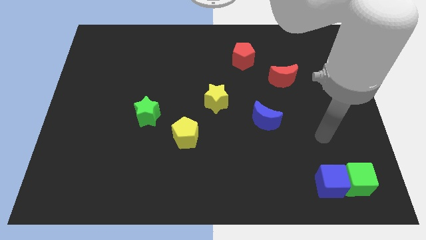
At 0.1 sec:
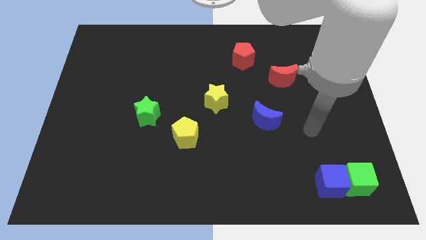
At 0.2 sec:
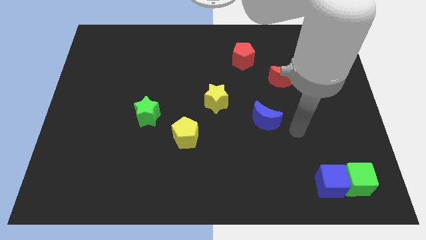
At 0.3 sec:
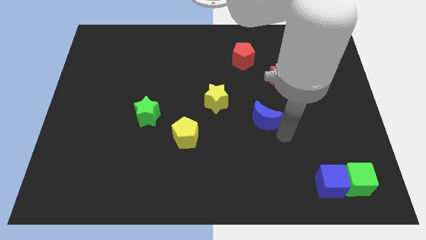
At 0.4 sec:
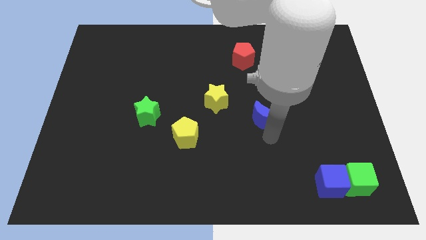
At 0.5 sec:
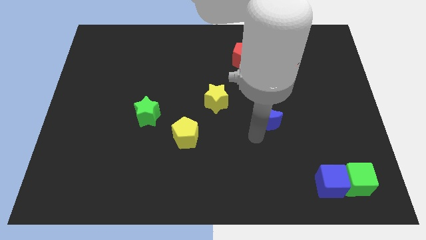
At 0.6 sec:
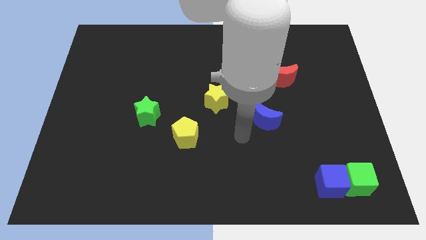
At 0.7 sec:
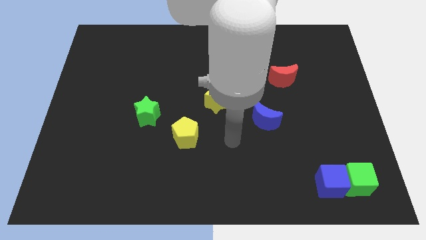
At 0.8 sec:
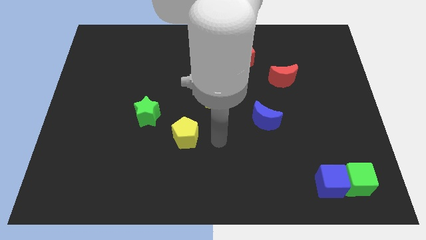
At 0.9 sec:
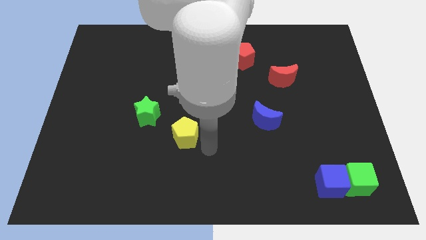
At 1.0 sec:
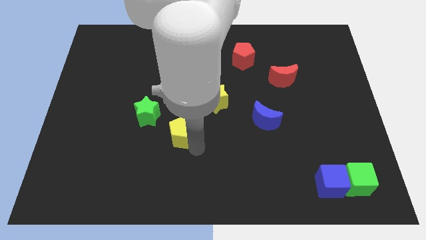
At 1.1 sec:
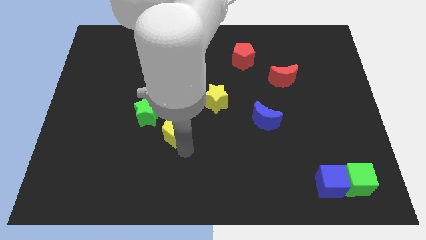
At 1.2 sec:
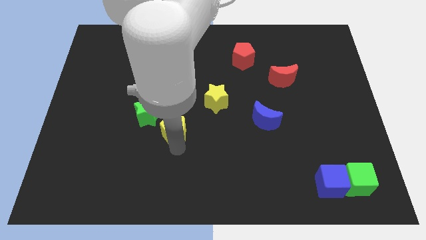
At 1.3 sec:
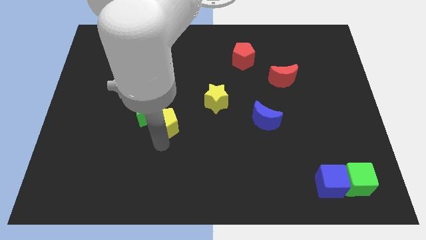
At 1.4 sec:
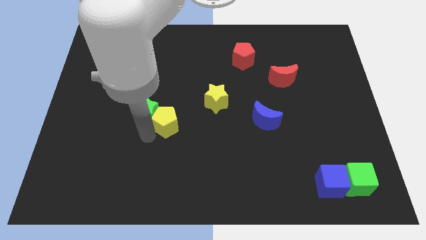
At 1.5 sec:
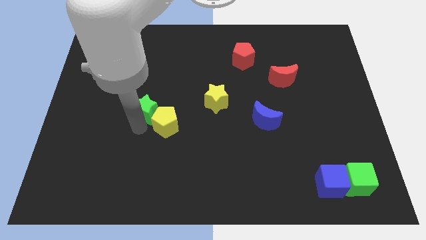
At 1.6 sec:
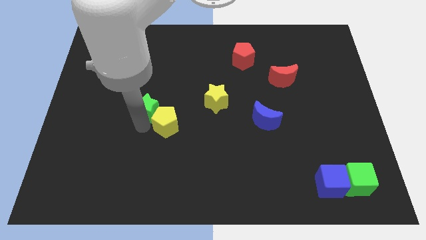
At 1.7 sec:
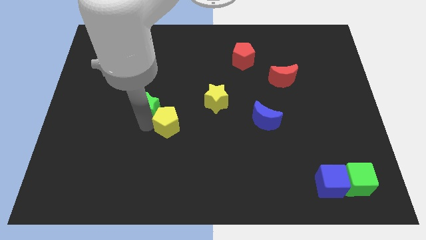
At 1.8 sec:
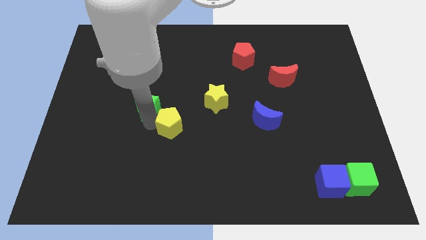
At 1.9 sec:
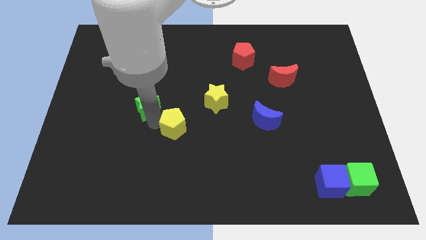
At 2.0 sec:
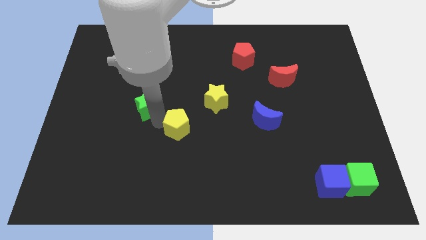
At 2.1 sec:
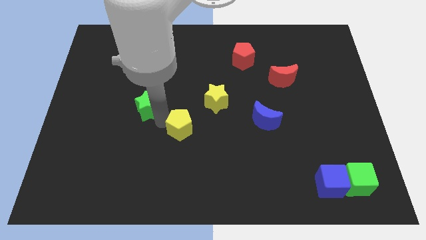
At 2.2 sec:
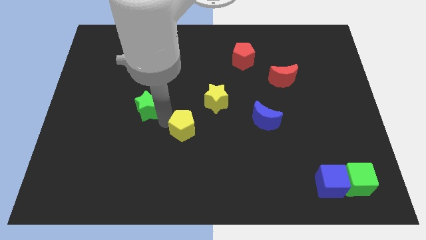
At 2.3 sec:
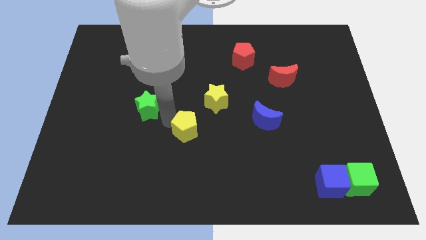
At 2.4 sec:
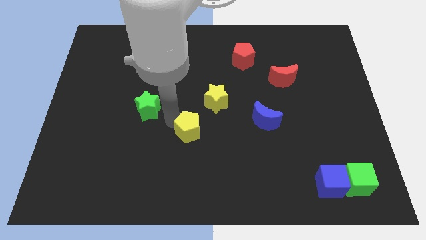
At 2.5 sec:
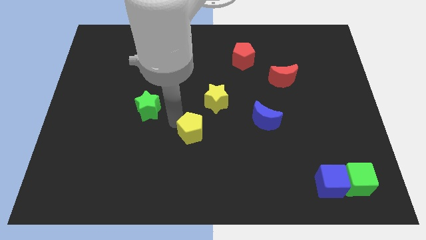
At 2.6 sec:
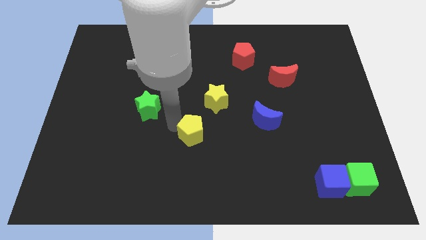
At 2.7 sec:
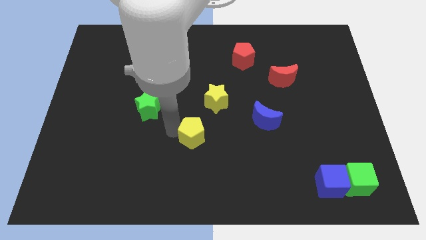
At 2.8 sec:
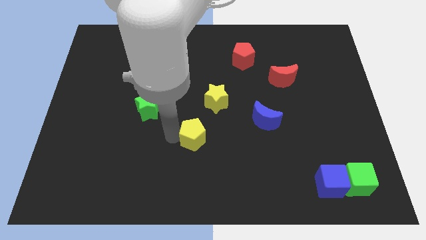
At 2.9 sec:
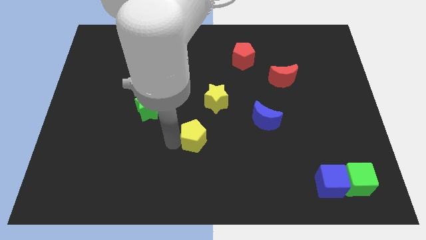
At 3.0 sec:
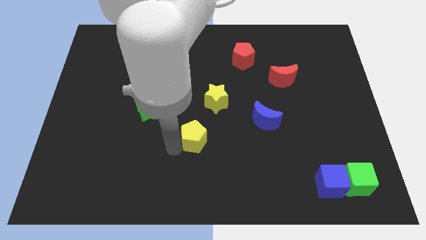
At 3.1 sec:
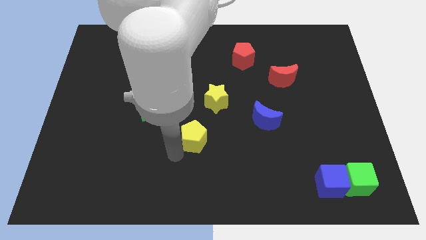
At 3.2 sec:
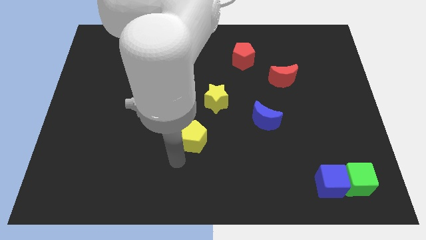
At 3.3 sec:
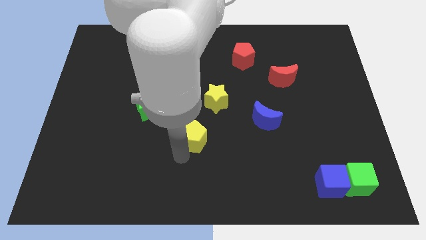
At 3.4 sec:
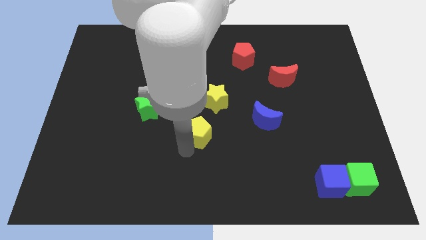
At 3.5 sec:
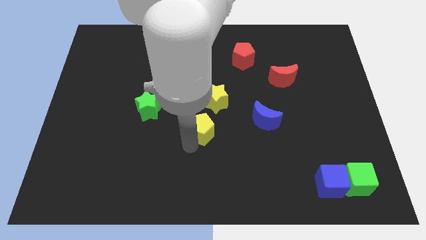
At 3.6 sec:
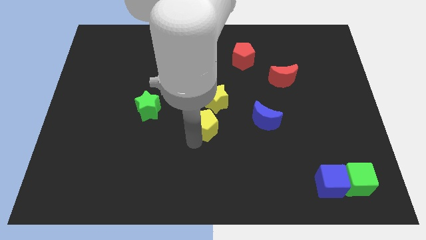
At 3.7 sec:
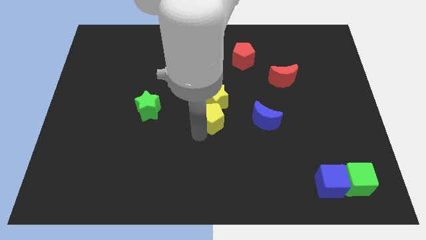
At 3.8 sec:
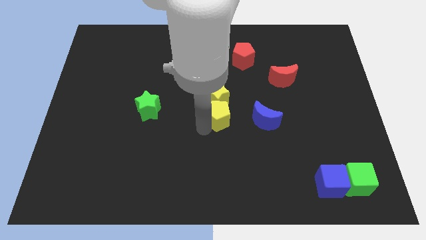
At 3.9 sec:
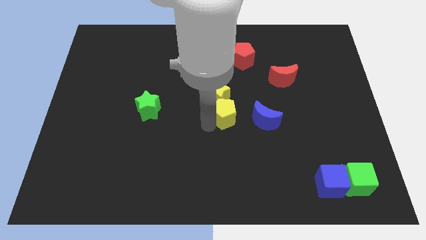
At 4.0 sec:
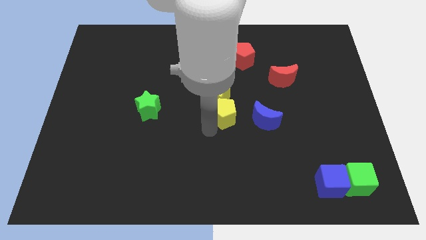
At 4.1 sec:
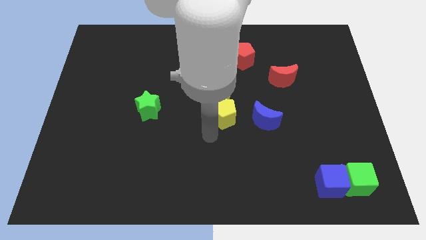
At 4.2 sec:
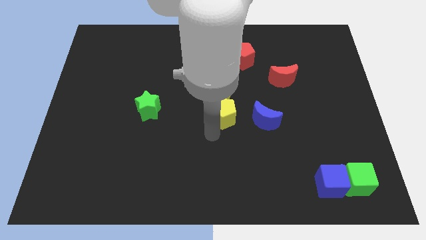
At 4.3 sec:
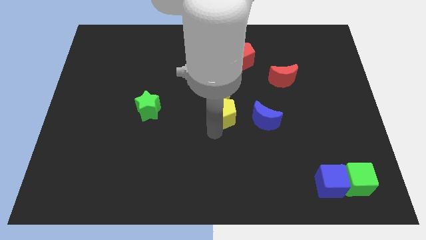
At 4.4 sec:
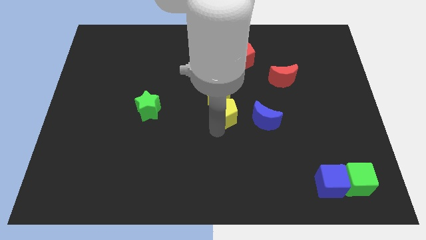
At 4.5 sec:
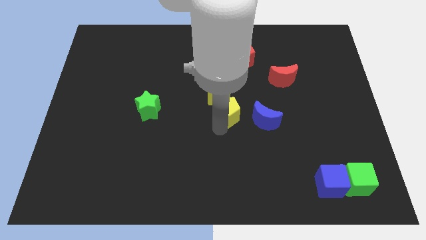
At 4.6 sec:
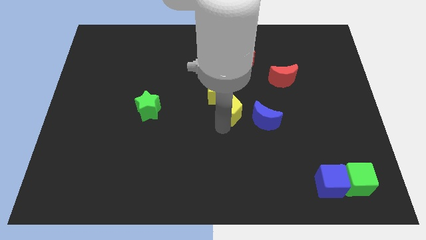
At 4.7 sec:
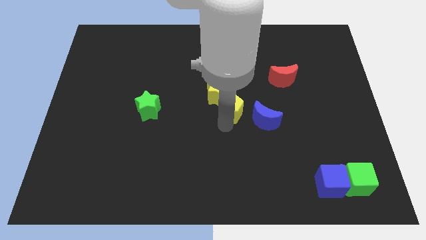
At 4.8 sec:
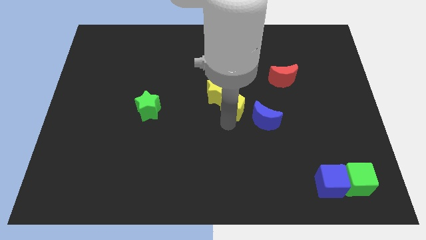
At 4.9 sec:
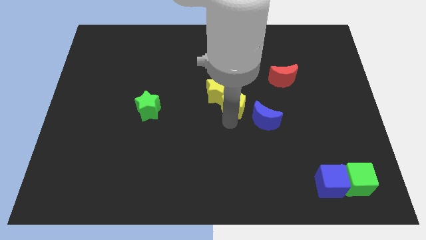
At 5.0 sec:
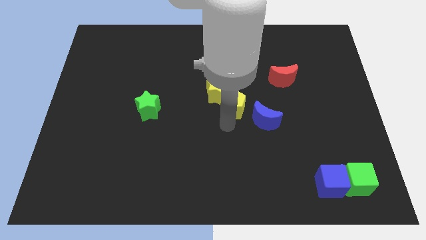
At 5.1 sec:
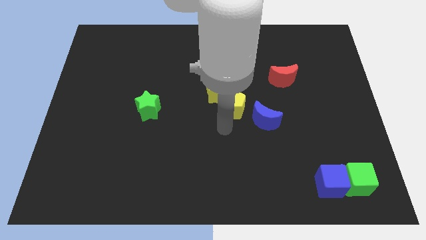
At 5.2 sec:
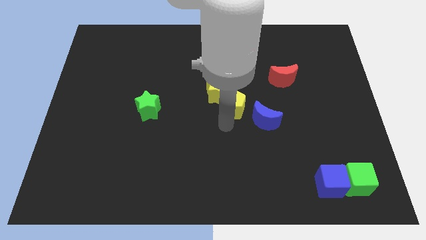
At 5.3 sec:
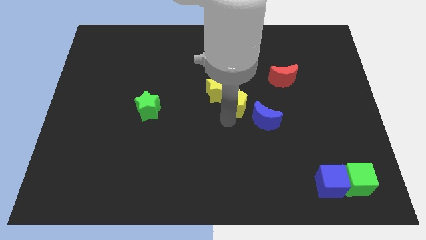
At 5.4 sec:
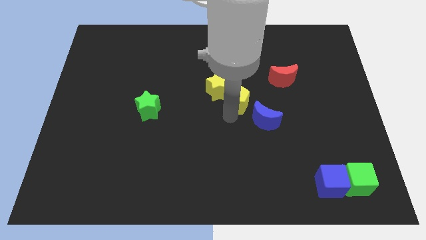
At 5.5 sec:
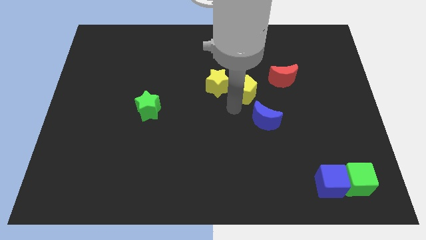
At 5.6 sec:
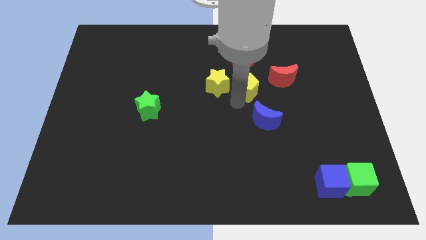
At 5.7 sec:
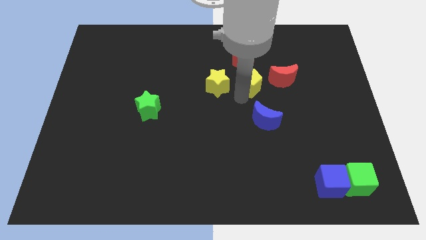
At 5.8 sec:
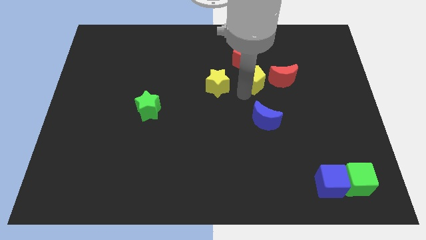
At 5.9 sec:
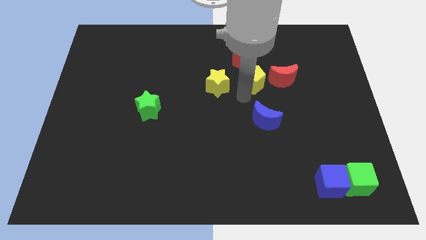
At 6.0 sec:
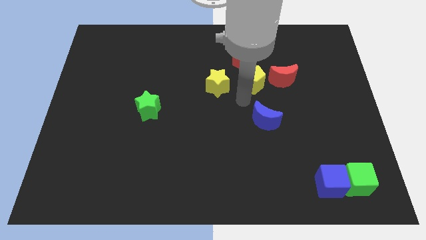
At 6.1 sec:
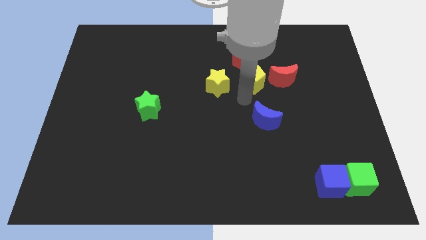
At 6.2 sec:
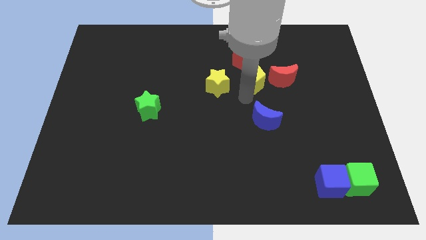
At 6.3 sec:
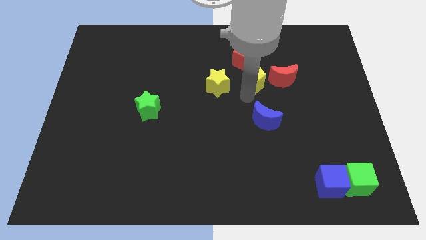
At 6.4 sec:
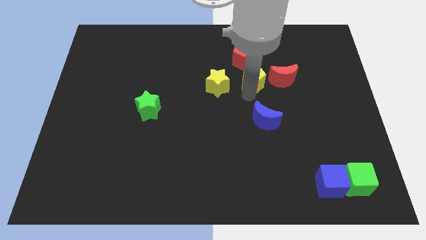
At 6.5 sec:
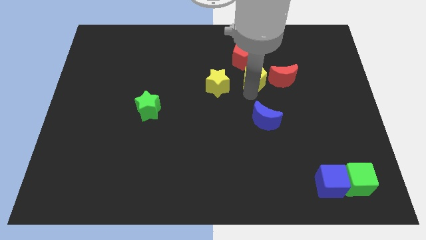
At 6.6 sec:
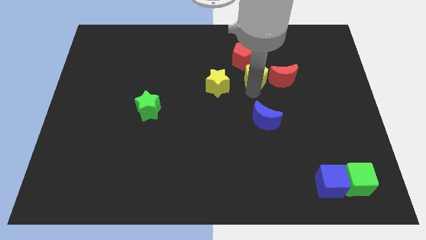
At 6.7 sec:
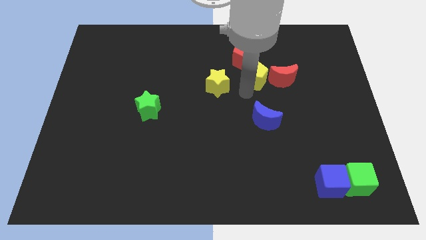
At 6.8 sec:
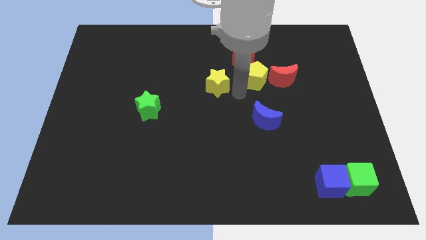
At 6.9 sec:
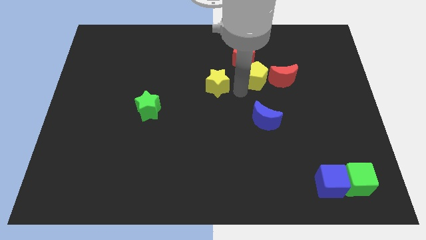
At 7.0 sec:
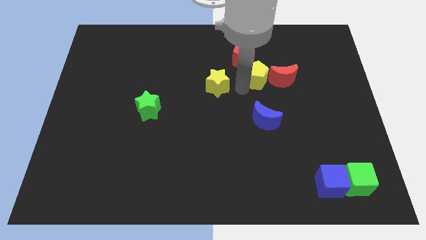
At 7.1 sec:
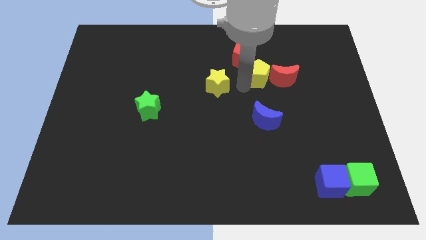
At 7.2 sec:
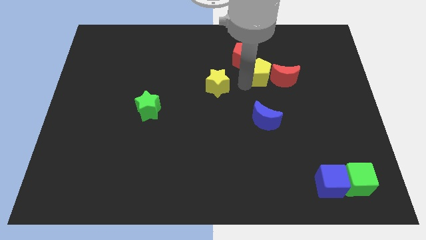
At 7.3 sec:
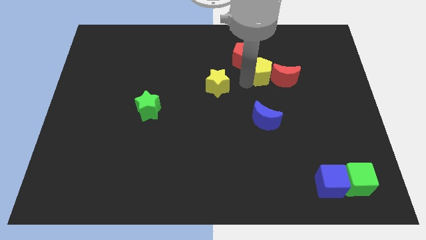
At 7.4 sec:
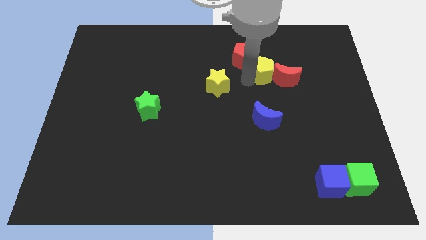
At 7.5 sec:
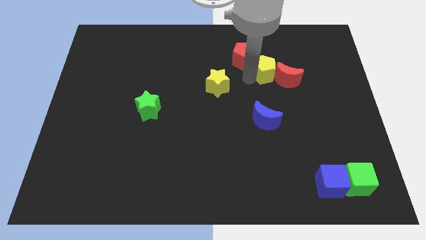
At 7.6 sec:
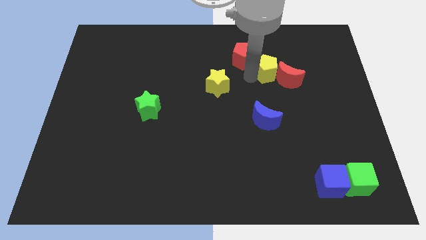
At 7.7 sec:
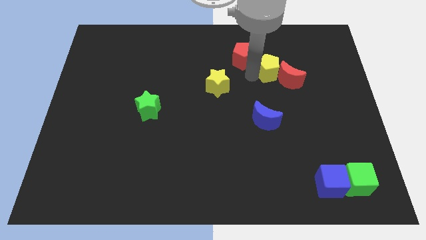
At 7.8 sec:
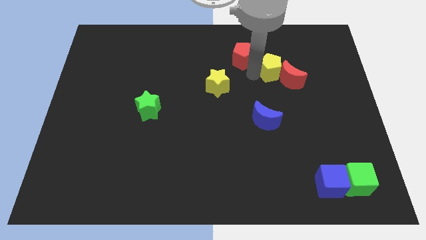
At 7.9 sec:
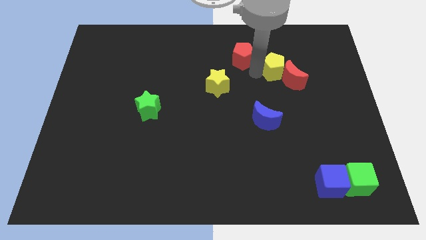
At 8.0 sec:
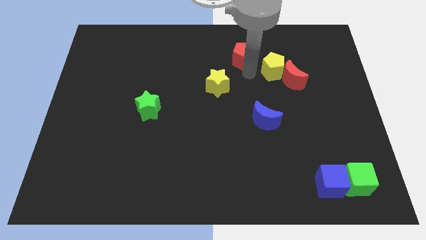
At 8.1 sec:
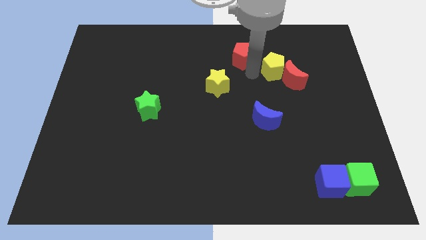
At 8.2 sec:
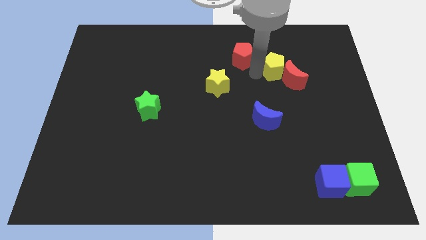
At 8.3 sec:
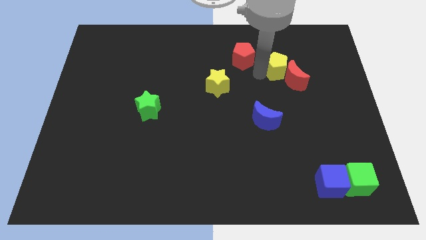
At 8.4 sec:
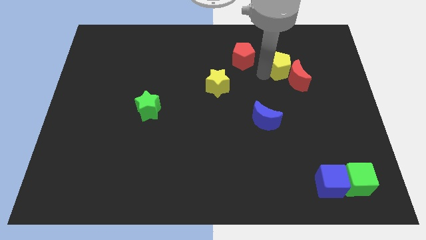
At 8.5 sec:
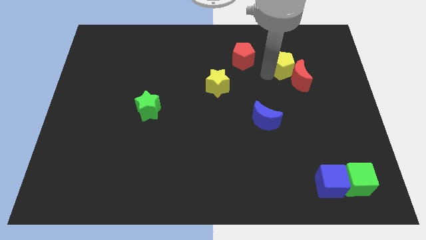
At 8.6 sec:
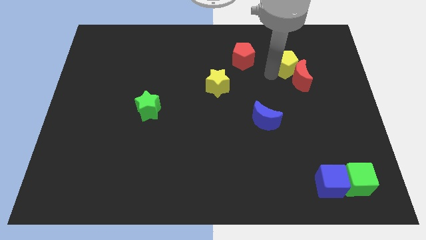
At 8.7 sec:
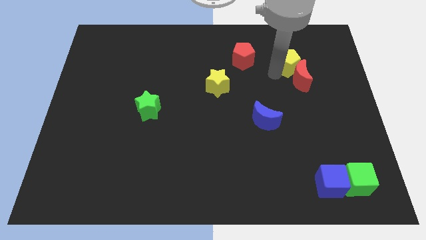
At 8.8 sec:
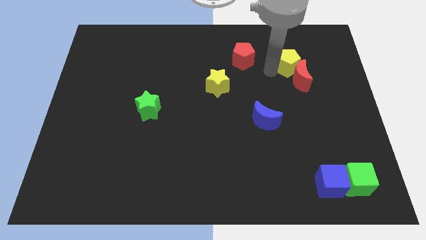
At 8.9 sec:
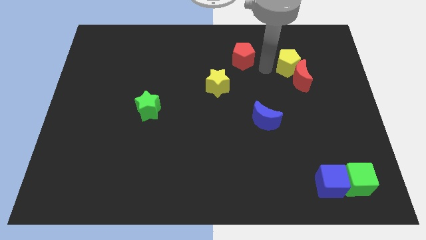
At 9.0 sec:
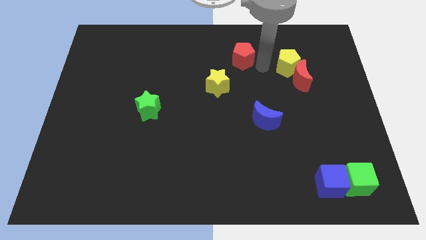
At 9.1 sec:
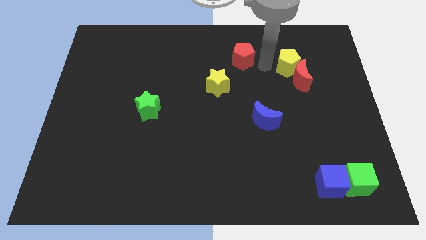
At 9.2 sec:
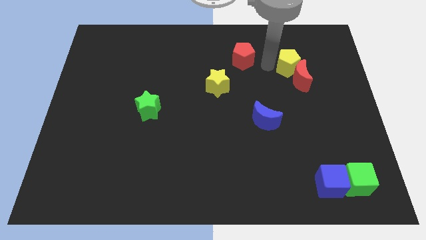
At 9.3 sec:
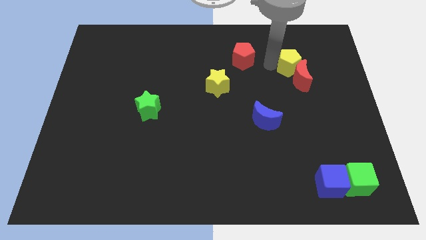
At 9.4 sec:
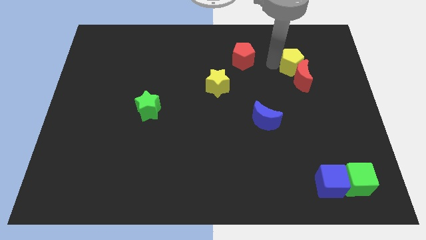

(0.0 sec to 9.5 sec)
put the yellow pentagon to the top right side of the red moon
